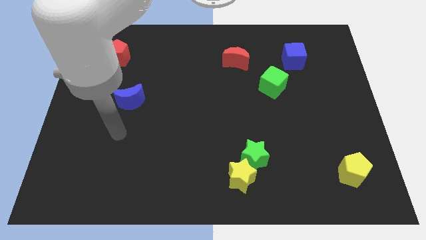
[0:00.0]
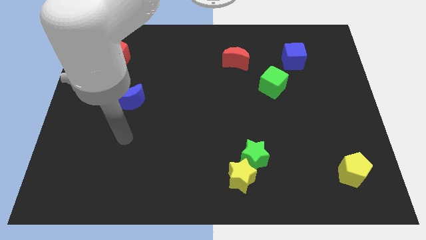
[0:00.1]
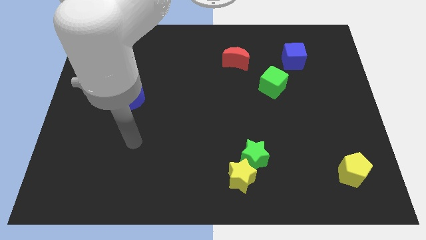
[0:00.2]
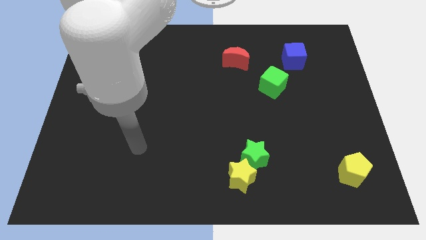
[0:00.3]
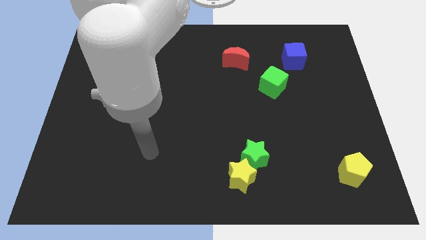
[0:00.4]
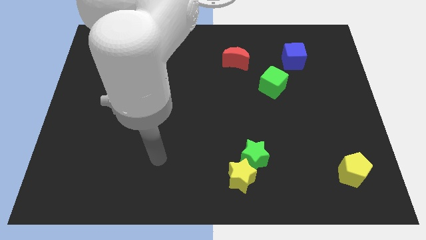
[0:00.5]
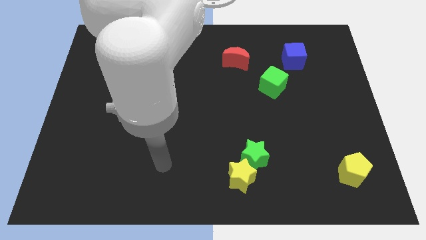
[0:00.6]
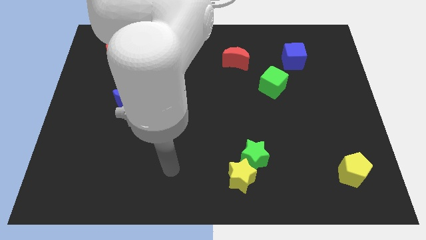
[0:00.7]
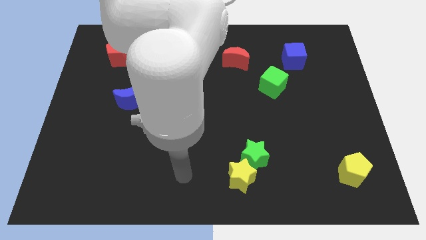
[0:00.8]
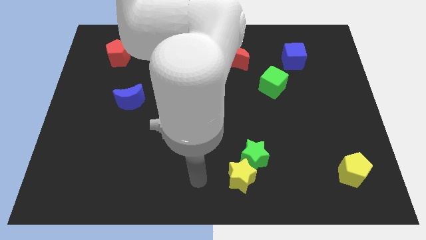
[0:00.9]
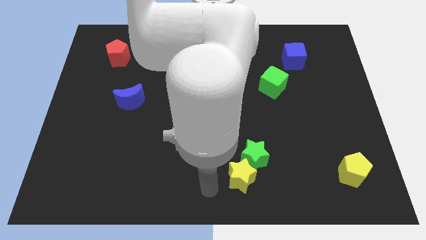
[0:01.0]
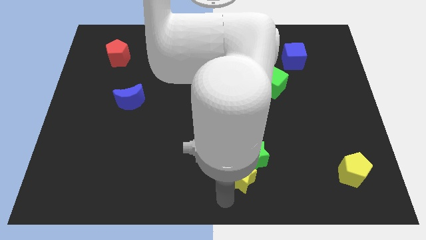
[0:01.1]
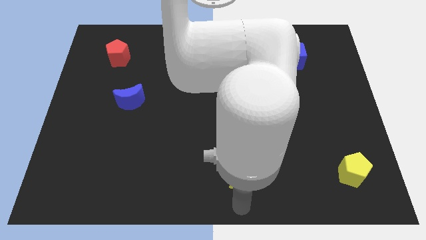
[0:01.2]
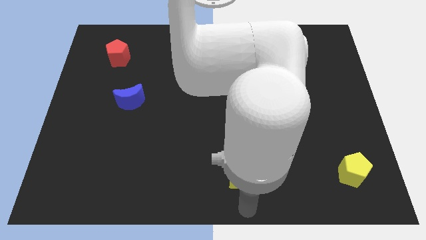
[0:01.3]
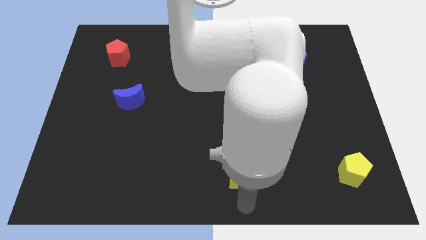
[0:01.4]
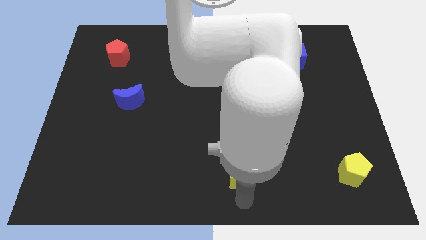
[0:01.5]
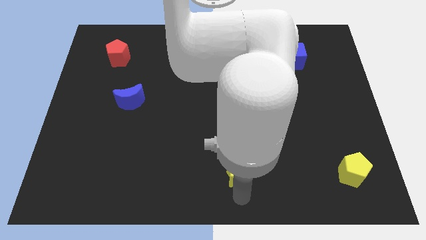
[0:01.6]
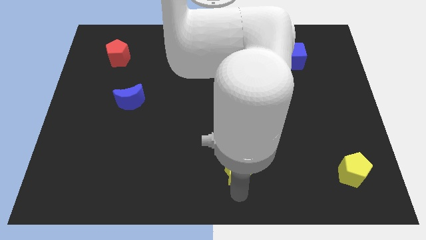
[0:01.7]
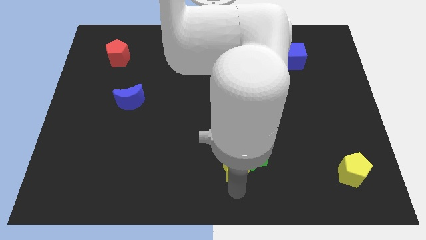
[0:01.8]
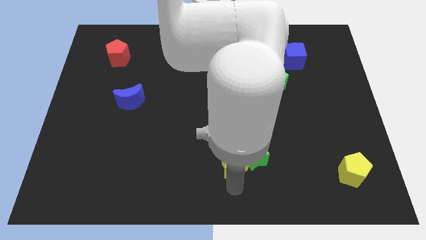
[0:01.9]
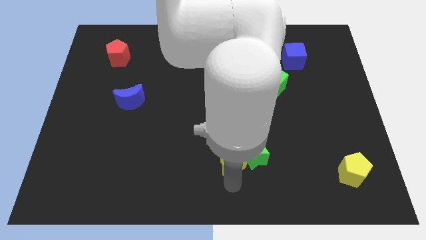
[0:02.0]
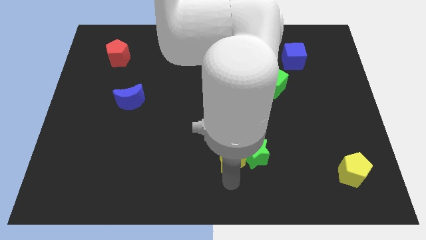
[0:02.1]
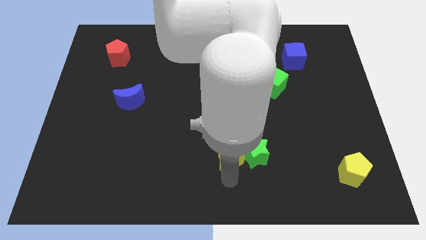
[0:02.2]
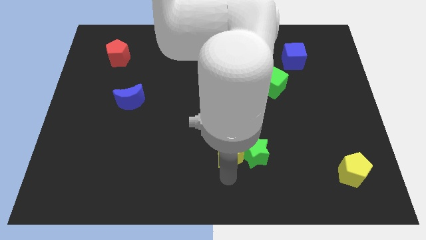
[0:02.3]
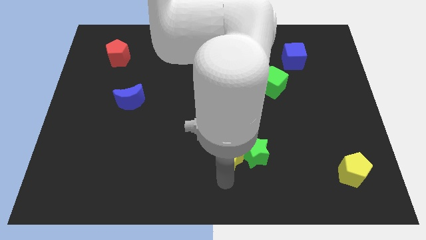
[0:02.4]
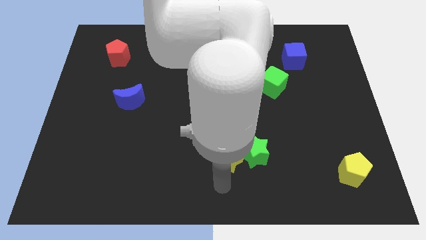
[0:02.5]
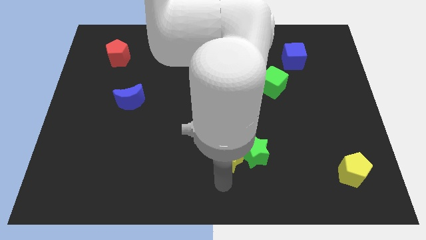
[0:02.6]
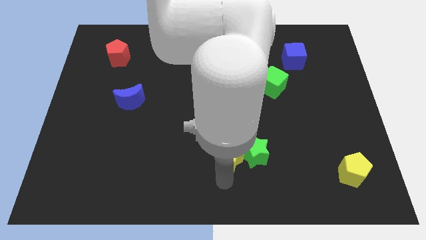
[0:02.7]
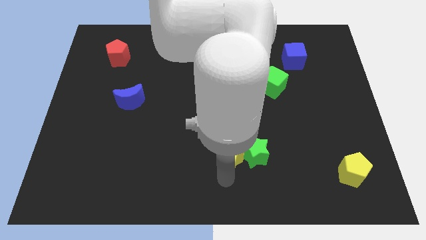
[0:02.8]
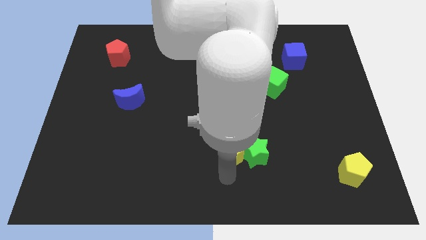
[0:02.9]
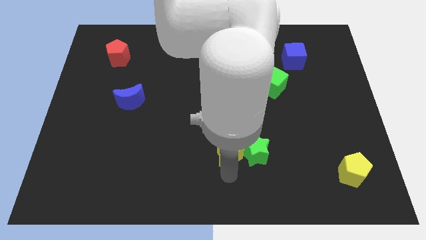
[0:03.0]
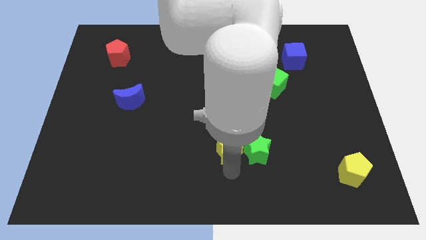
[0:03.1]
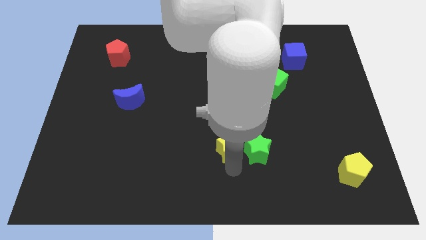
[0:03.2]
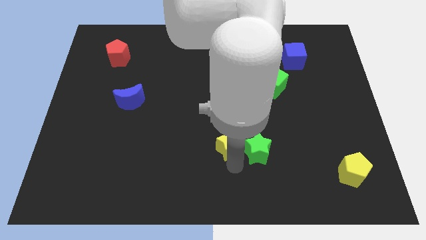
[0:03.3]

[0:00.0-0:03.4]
move the yellow star a little bit upwards

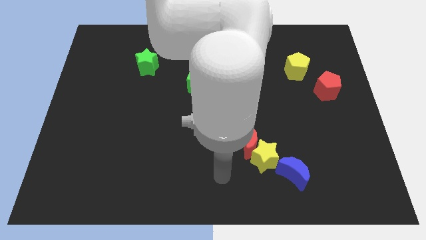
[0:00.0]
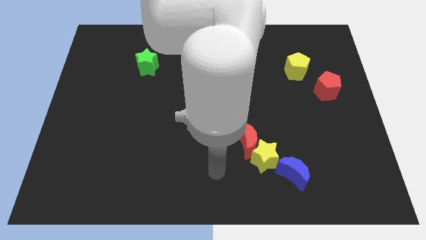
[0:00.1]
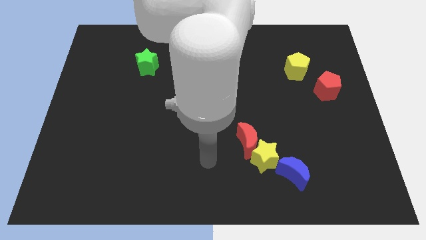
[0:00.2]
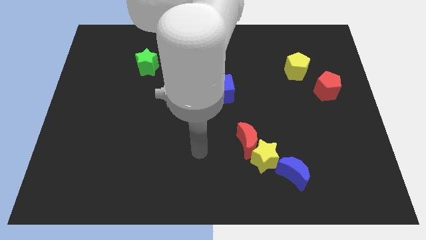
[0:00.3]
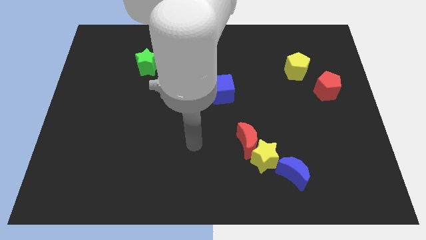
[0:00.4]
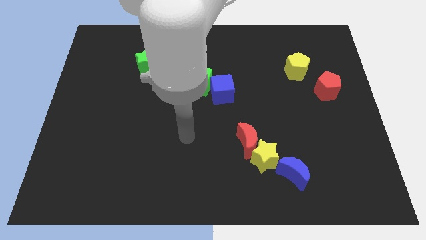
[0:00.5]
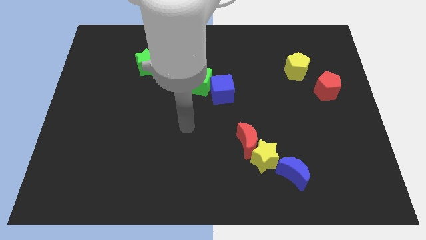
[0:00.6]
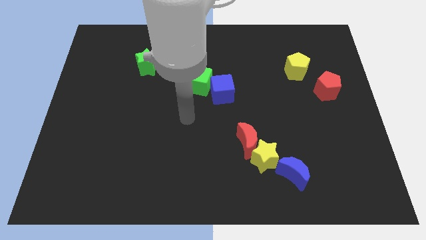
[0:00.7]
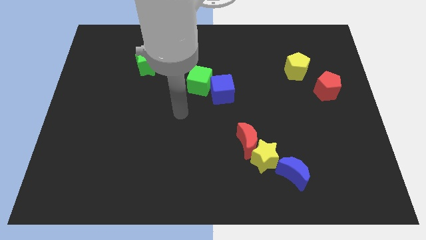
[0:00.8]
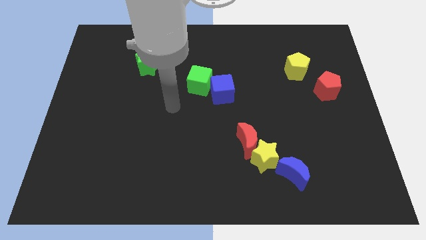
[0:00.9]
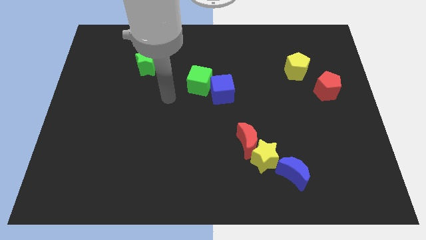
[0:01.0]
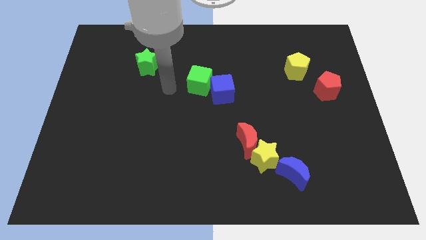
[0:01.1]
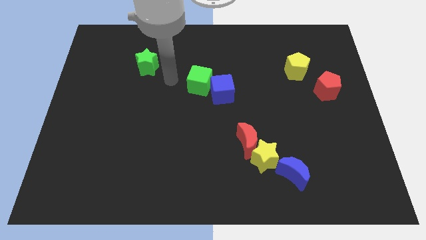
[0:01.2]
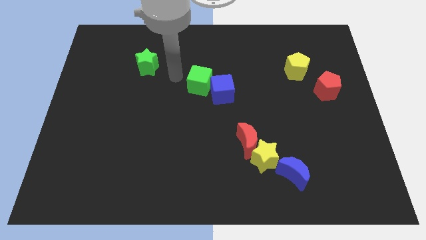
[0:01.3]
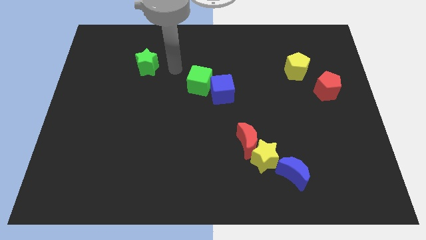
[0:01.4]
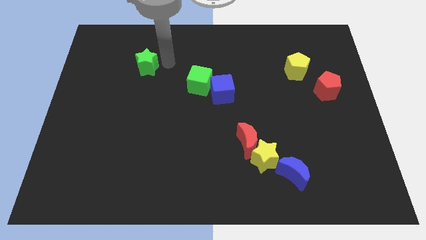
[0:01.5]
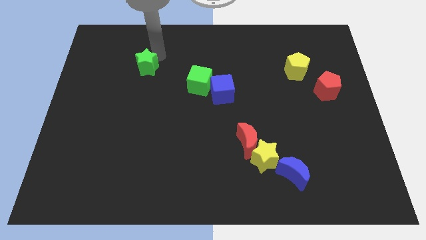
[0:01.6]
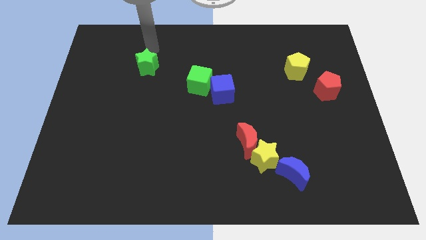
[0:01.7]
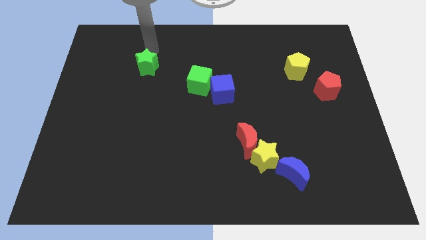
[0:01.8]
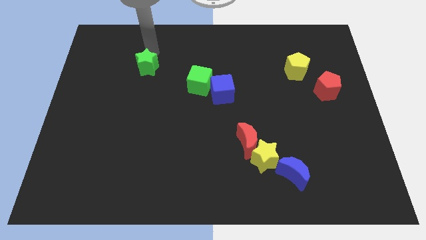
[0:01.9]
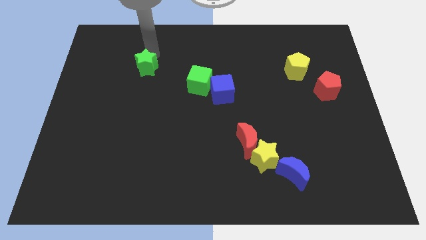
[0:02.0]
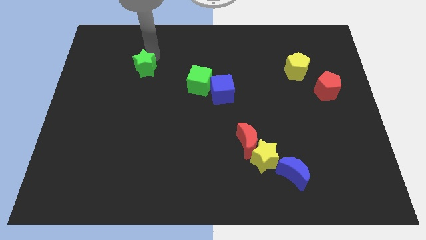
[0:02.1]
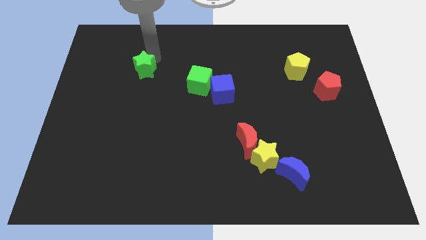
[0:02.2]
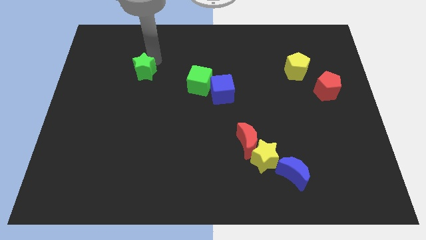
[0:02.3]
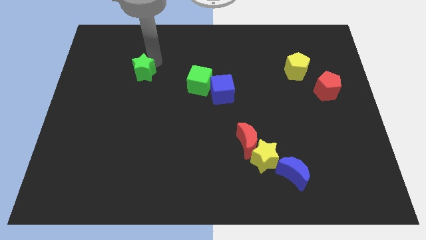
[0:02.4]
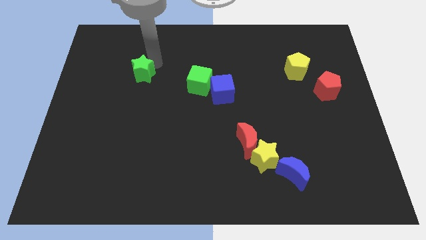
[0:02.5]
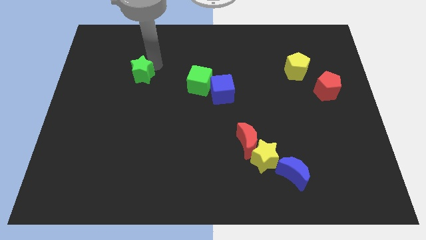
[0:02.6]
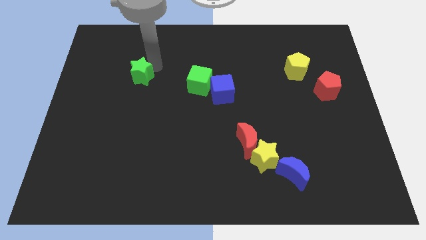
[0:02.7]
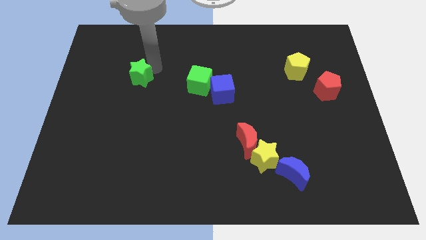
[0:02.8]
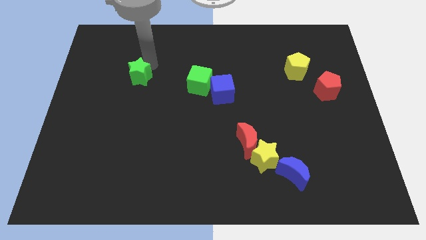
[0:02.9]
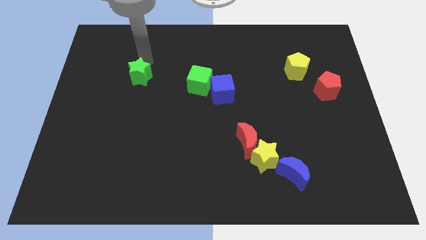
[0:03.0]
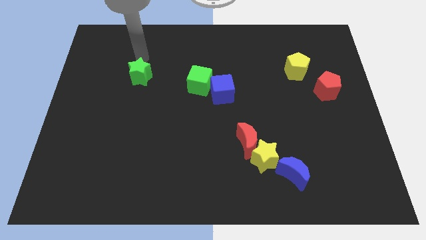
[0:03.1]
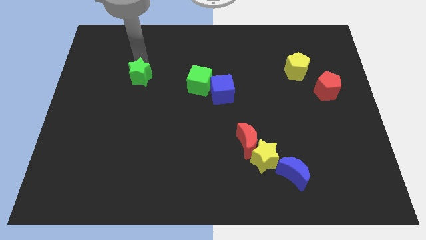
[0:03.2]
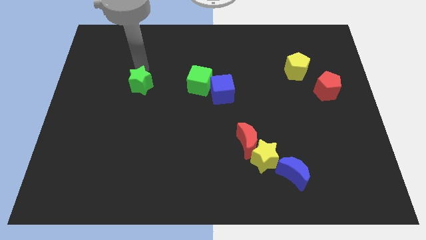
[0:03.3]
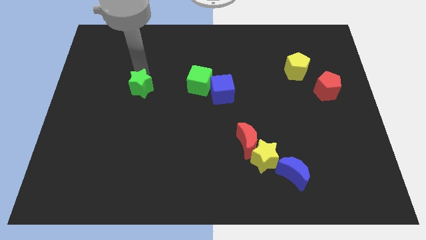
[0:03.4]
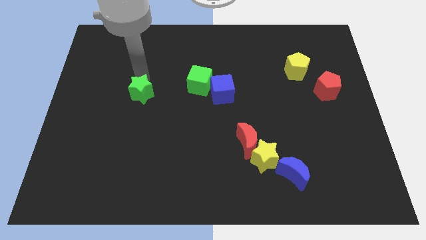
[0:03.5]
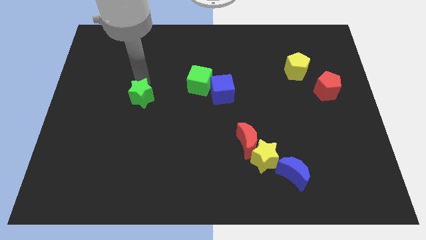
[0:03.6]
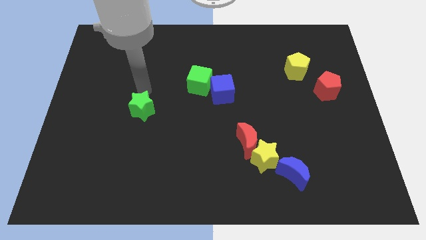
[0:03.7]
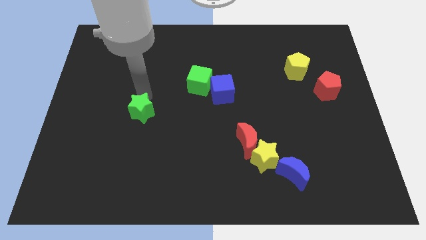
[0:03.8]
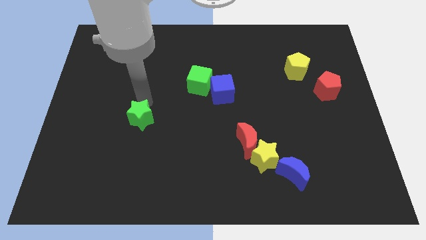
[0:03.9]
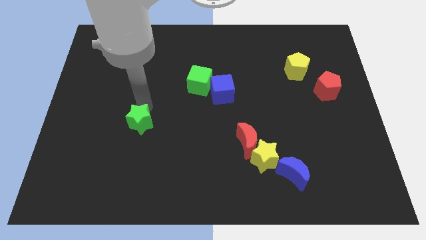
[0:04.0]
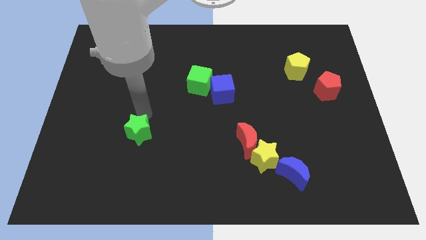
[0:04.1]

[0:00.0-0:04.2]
slide the green star down

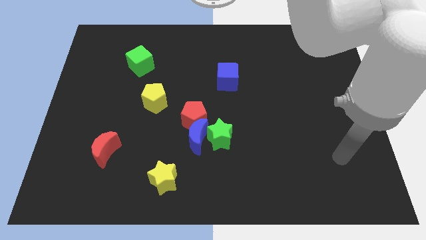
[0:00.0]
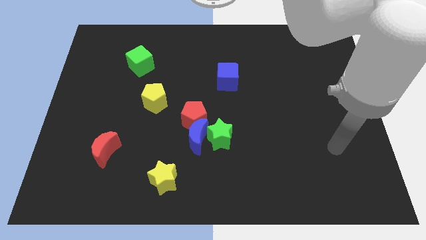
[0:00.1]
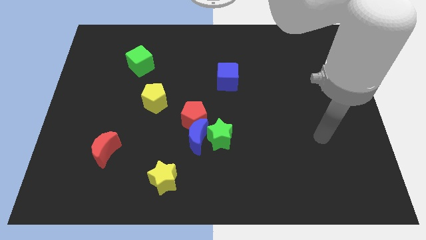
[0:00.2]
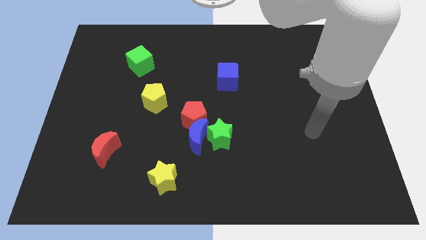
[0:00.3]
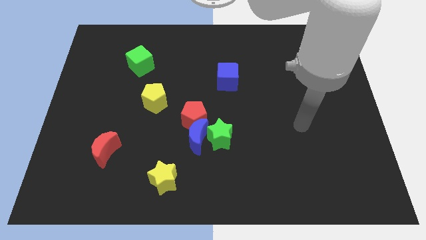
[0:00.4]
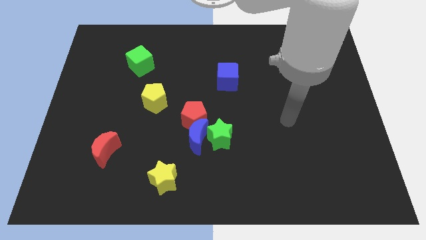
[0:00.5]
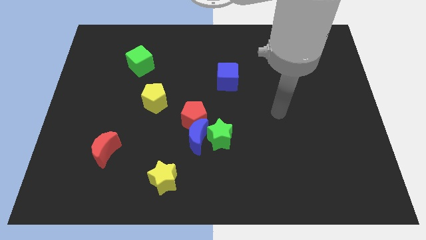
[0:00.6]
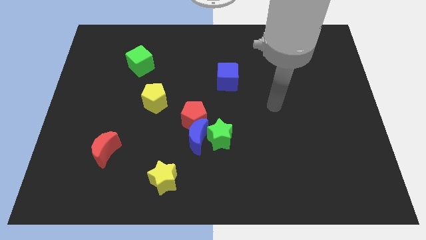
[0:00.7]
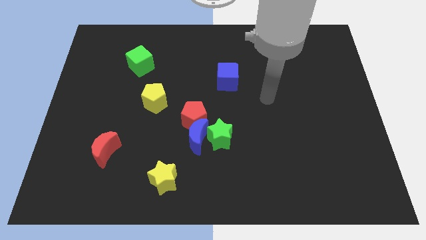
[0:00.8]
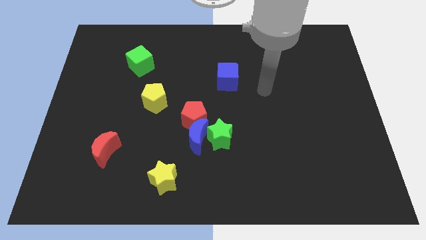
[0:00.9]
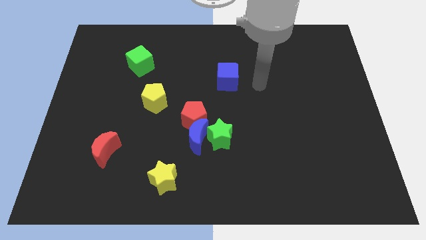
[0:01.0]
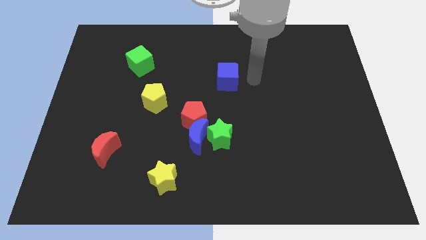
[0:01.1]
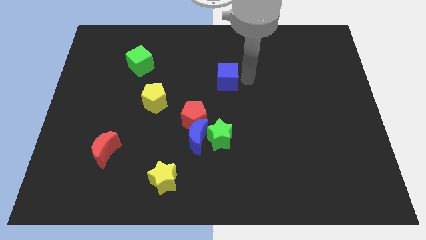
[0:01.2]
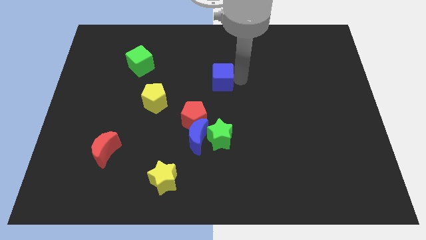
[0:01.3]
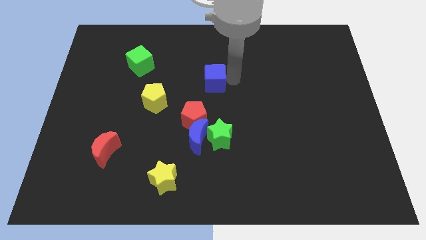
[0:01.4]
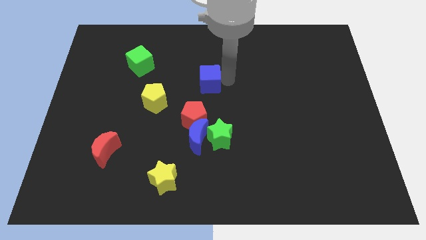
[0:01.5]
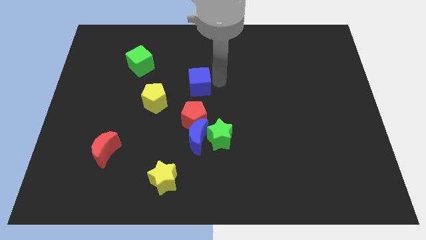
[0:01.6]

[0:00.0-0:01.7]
slightly slide the blue cube left
